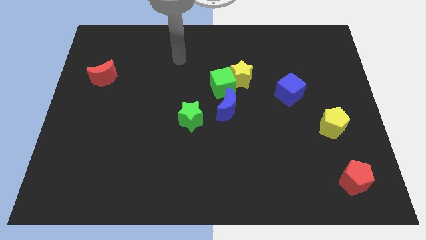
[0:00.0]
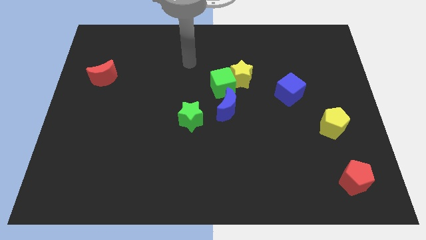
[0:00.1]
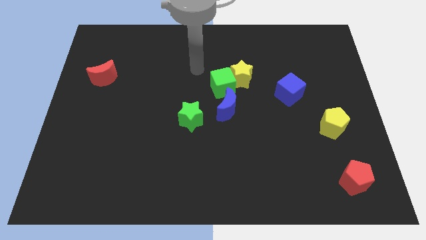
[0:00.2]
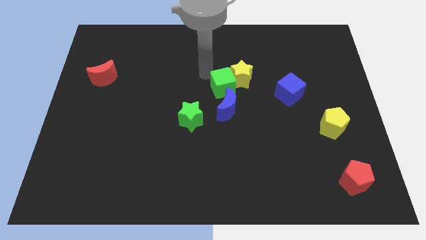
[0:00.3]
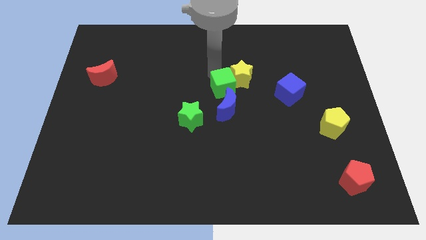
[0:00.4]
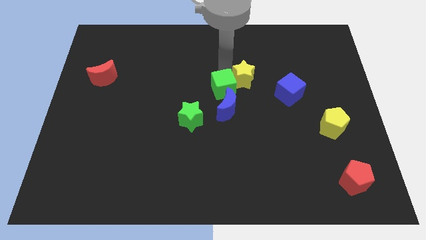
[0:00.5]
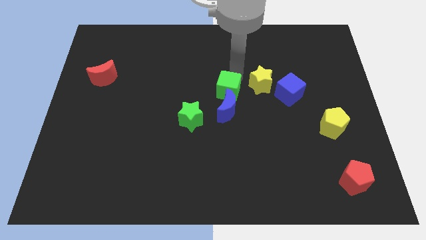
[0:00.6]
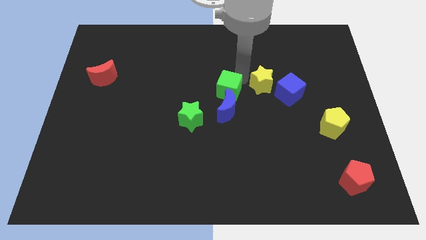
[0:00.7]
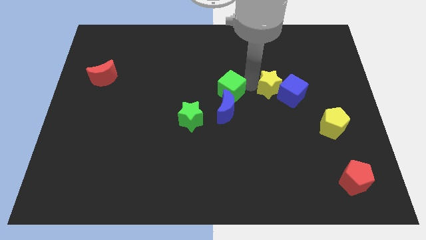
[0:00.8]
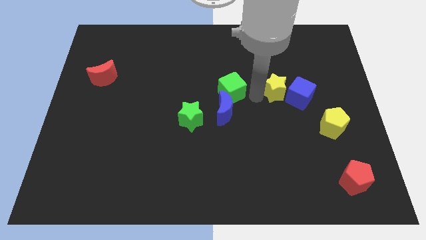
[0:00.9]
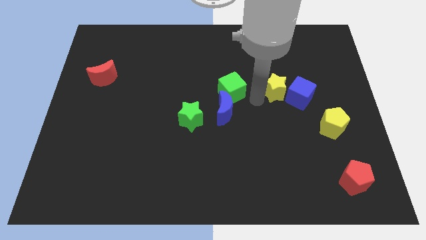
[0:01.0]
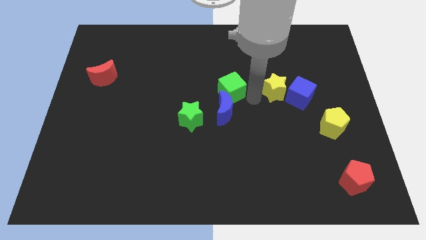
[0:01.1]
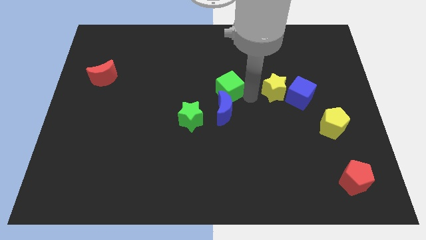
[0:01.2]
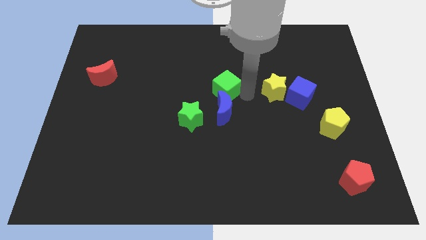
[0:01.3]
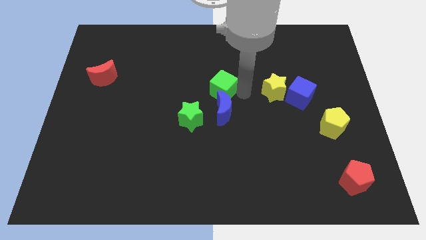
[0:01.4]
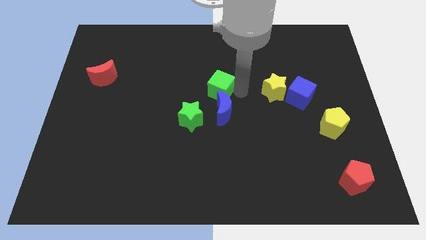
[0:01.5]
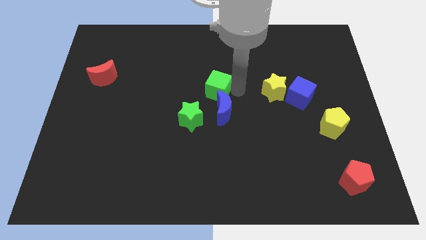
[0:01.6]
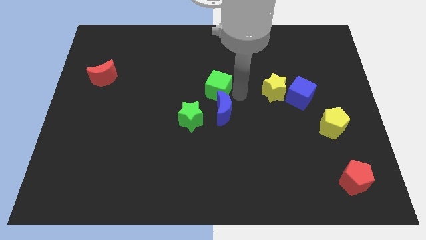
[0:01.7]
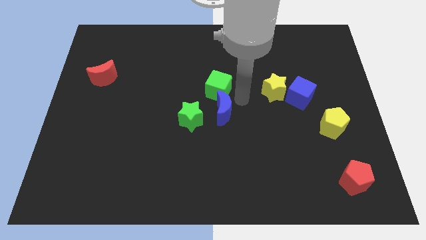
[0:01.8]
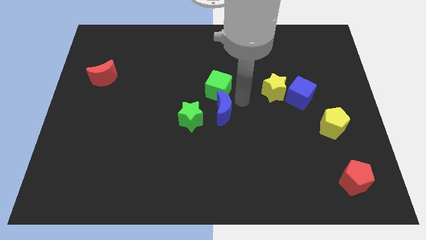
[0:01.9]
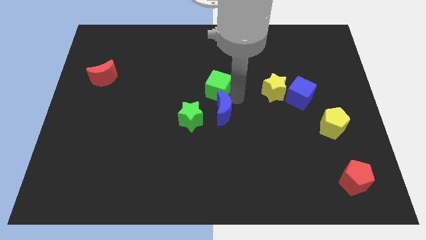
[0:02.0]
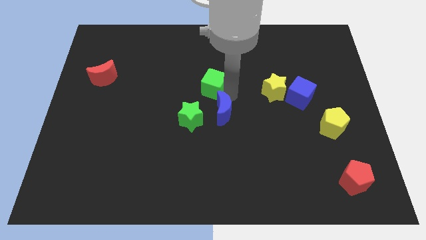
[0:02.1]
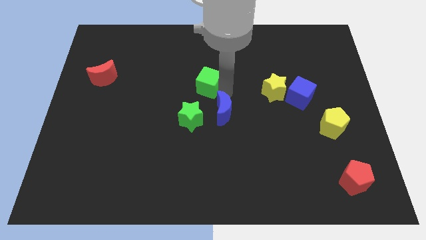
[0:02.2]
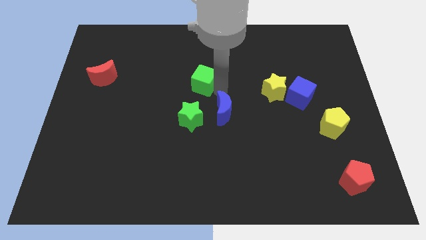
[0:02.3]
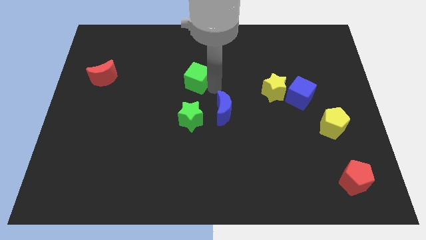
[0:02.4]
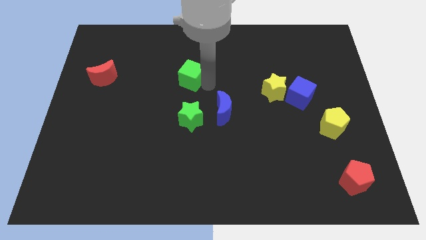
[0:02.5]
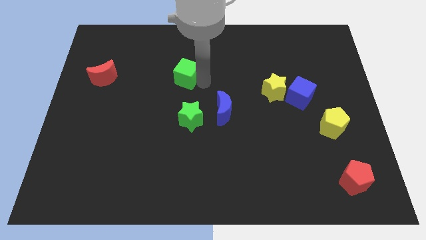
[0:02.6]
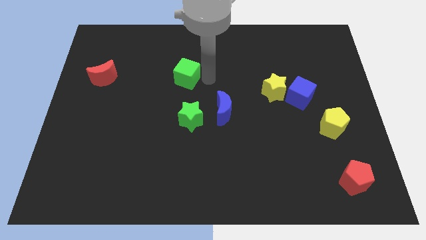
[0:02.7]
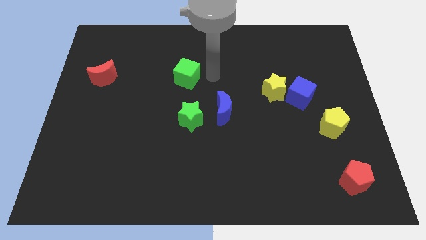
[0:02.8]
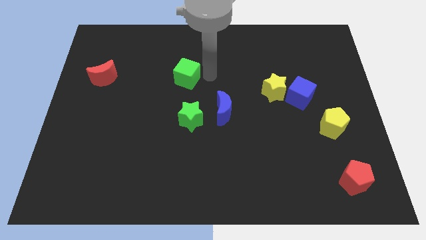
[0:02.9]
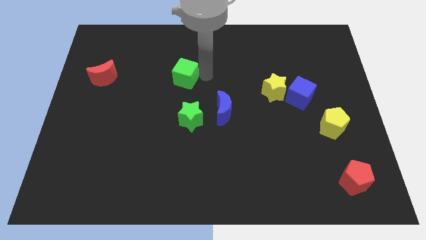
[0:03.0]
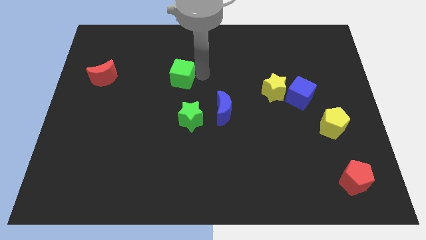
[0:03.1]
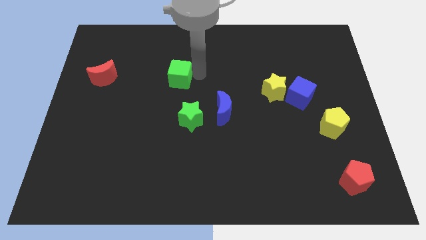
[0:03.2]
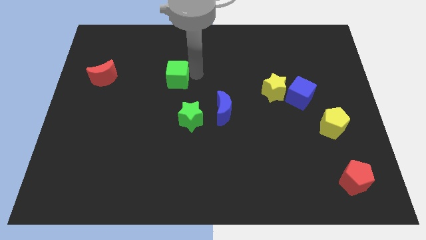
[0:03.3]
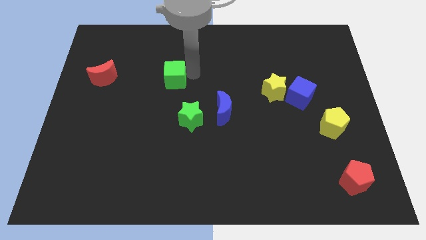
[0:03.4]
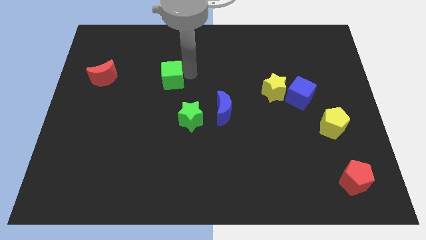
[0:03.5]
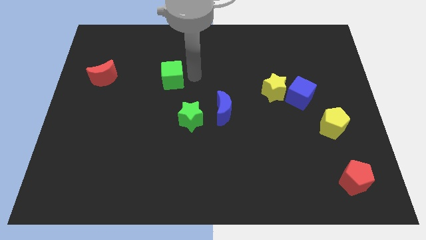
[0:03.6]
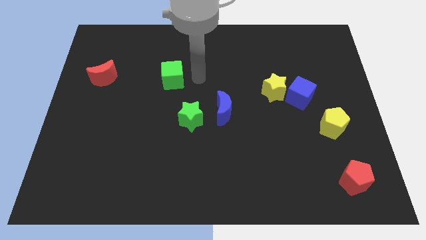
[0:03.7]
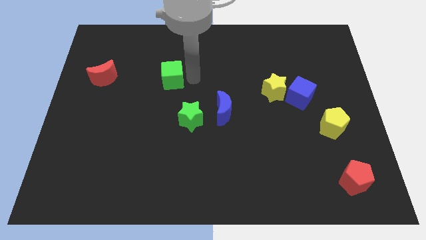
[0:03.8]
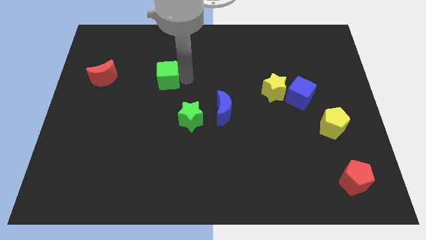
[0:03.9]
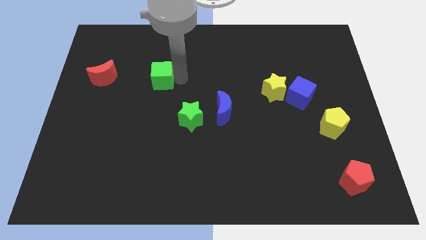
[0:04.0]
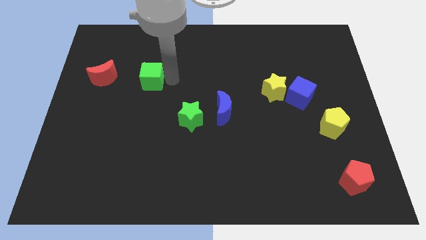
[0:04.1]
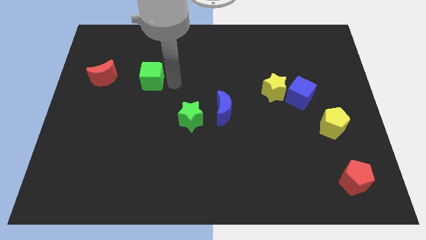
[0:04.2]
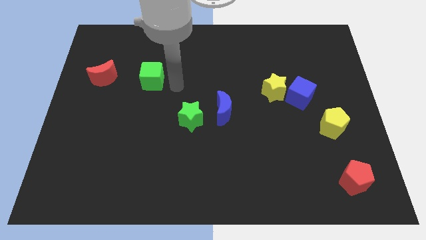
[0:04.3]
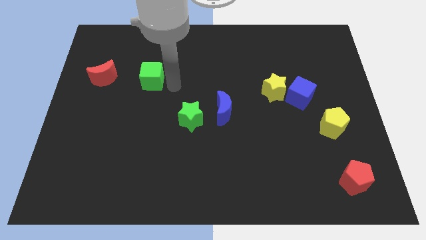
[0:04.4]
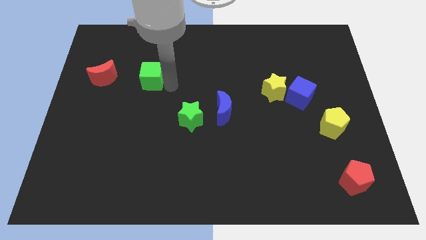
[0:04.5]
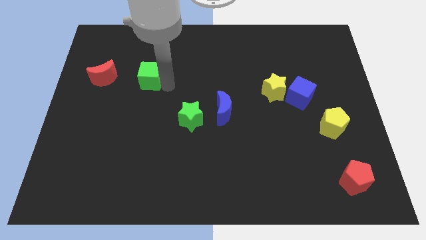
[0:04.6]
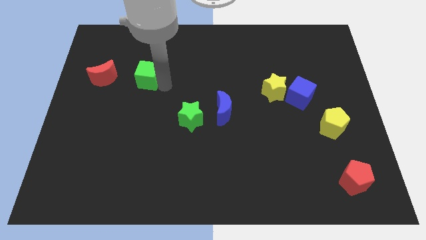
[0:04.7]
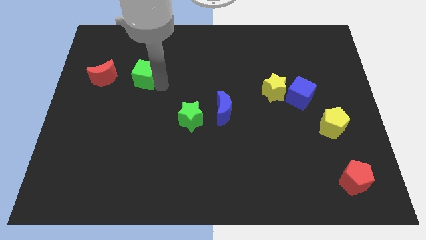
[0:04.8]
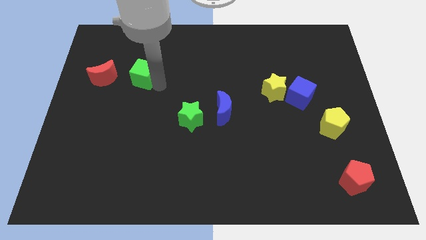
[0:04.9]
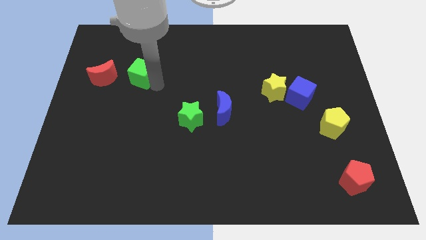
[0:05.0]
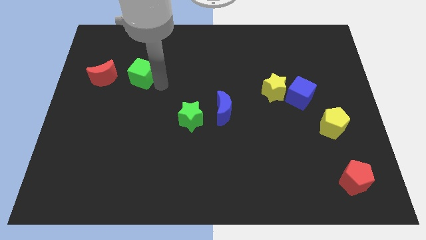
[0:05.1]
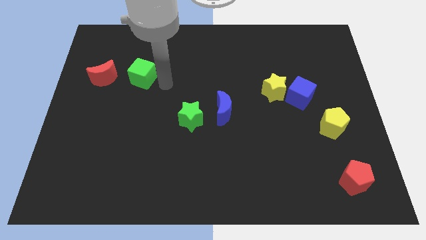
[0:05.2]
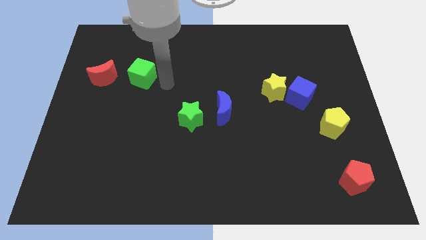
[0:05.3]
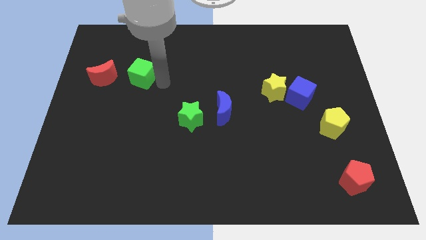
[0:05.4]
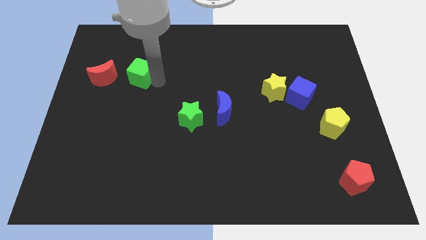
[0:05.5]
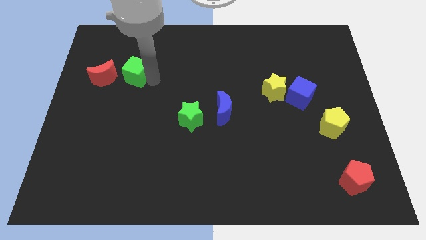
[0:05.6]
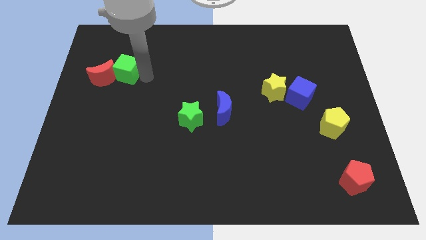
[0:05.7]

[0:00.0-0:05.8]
move the green cube close to the red moon
